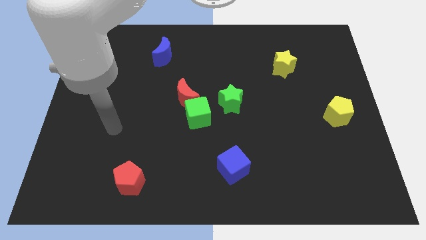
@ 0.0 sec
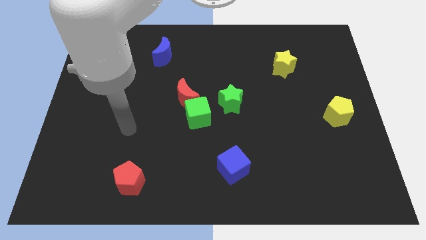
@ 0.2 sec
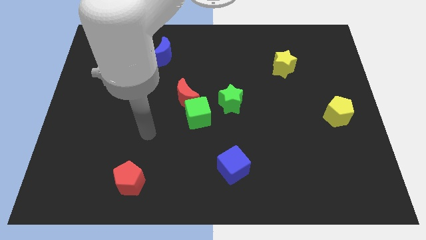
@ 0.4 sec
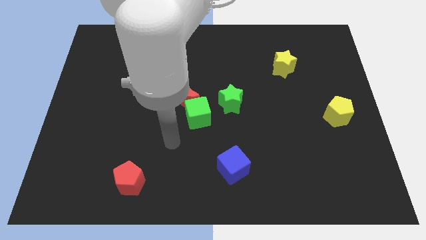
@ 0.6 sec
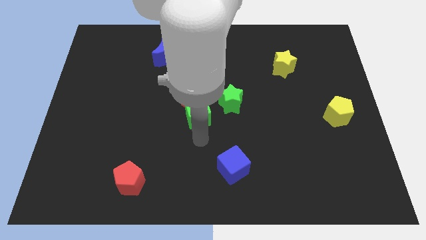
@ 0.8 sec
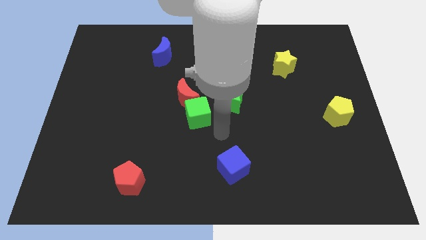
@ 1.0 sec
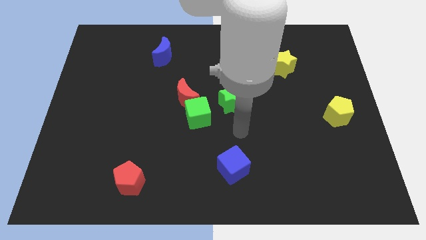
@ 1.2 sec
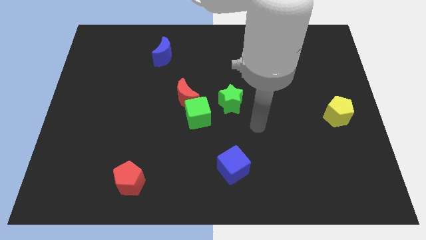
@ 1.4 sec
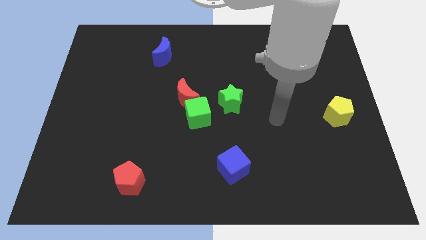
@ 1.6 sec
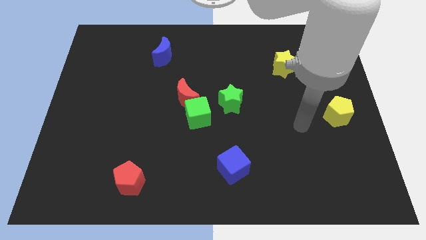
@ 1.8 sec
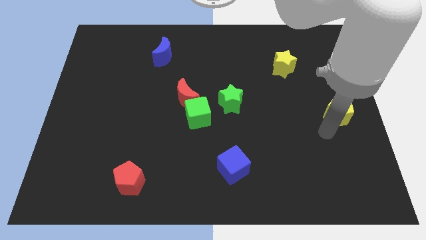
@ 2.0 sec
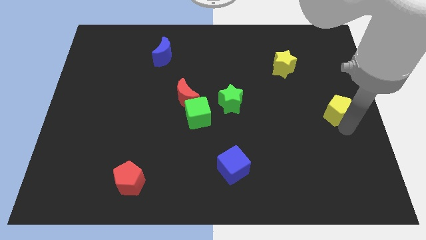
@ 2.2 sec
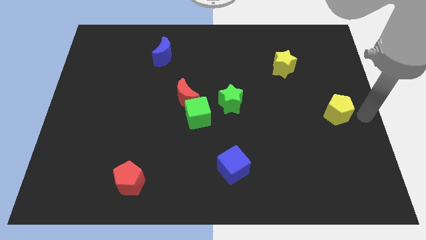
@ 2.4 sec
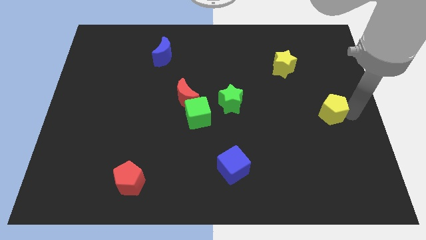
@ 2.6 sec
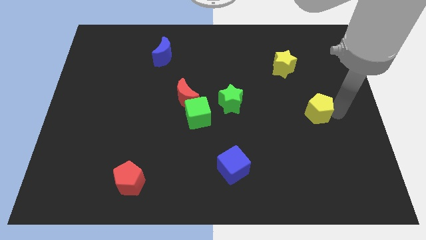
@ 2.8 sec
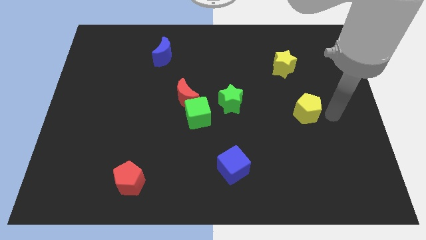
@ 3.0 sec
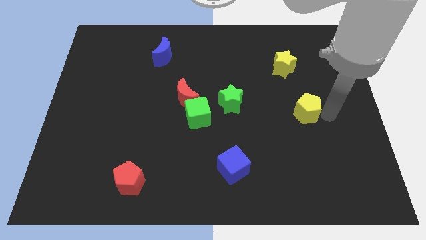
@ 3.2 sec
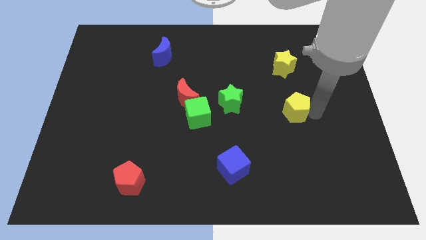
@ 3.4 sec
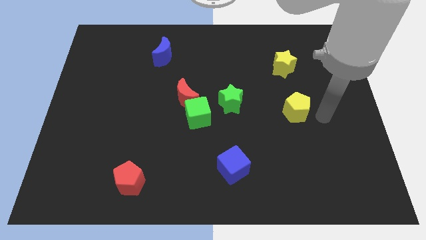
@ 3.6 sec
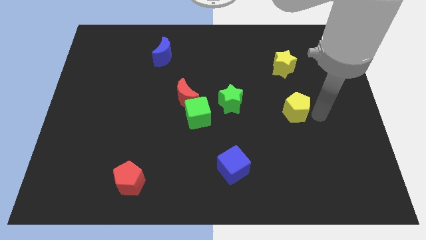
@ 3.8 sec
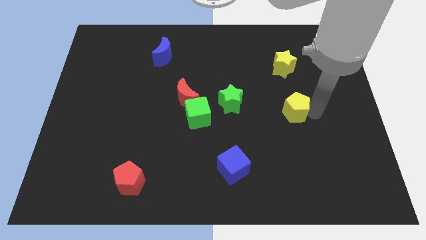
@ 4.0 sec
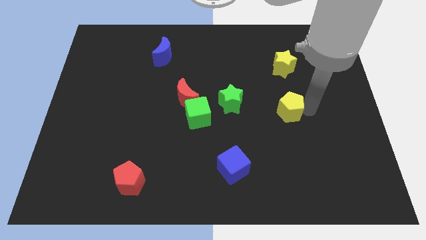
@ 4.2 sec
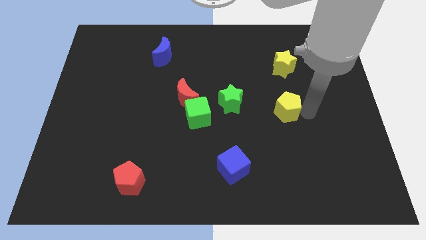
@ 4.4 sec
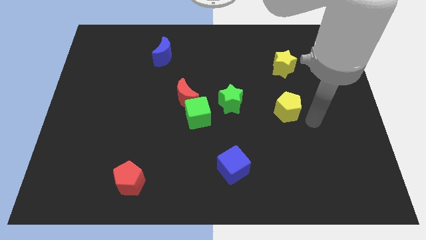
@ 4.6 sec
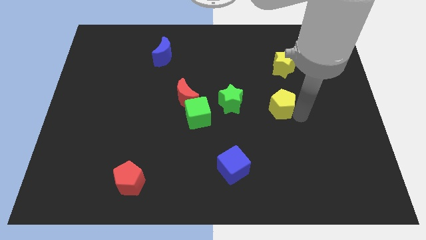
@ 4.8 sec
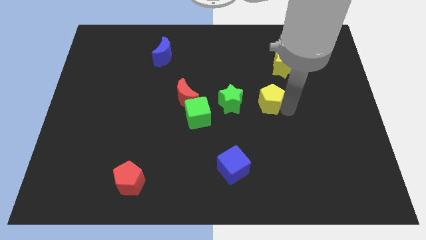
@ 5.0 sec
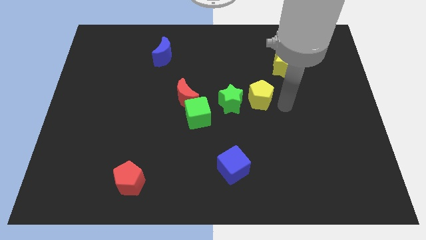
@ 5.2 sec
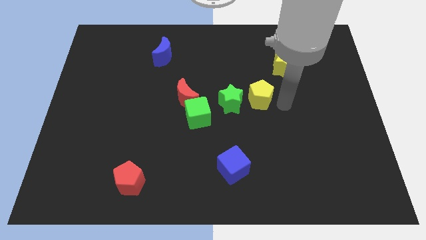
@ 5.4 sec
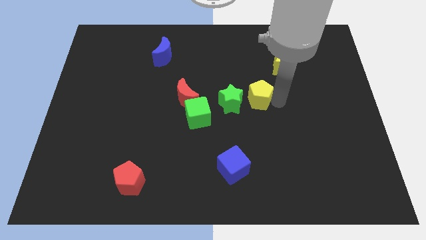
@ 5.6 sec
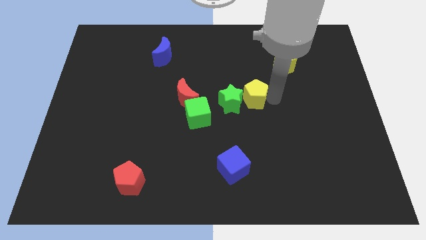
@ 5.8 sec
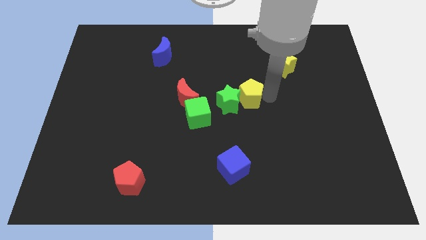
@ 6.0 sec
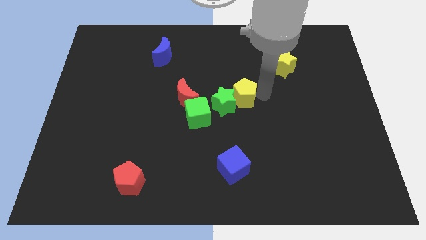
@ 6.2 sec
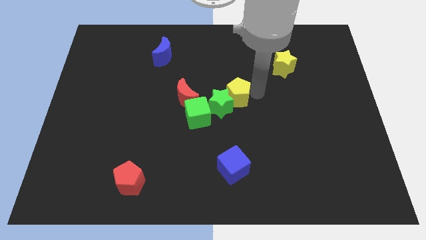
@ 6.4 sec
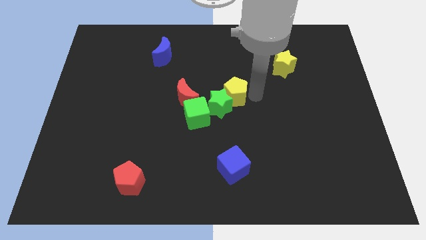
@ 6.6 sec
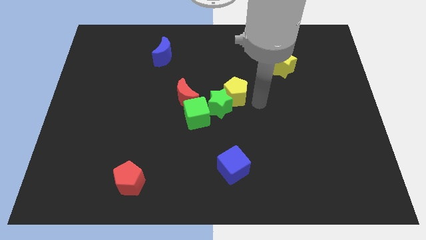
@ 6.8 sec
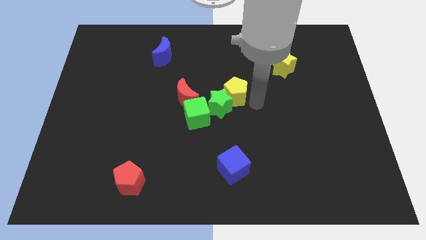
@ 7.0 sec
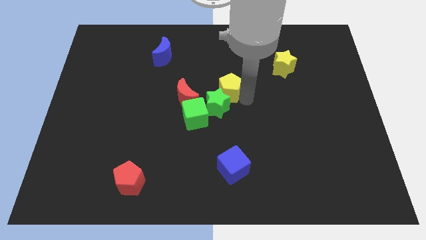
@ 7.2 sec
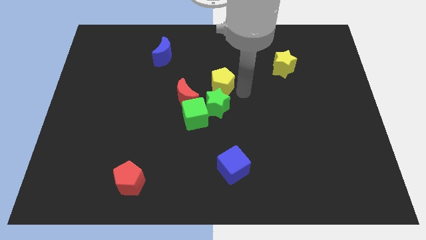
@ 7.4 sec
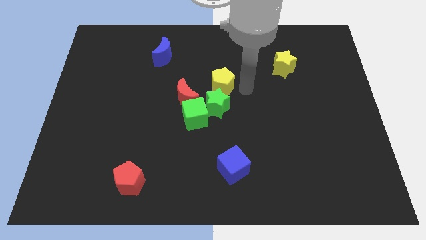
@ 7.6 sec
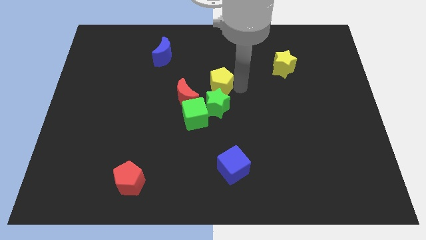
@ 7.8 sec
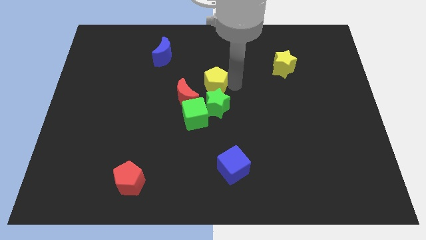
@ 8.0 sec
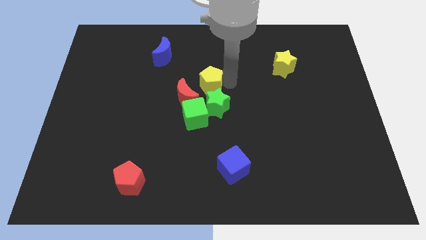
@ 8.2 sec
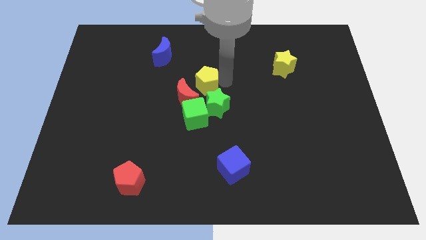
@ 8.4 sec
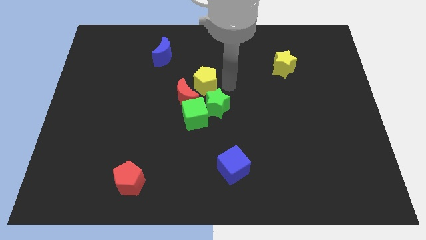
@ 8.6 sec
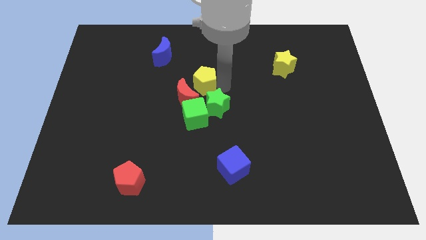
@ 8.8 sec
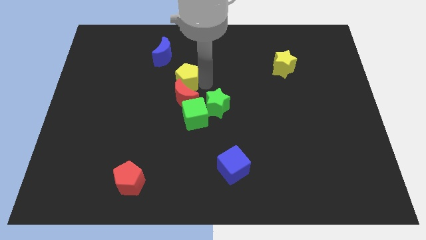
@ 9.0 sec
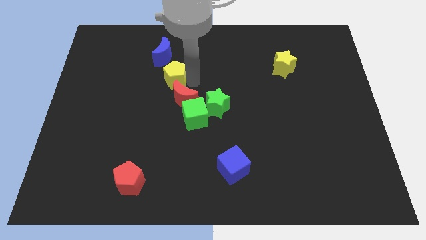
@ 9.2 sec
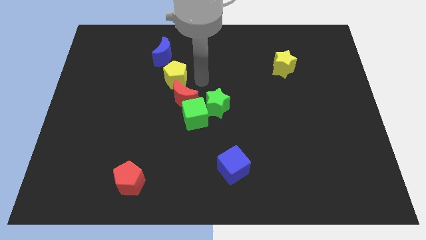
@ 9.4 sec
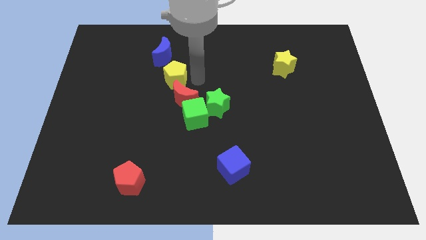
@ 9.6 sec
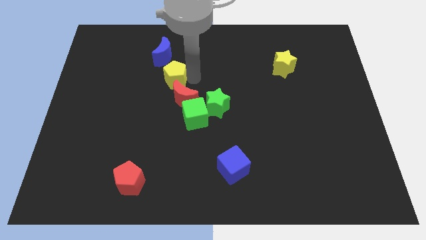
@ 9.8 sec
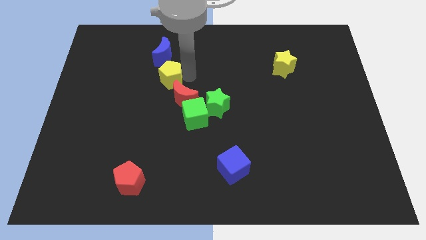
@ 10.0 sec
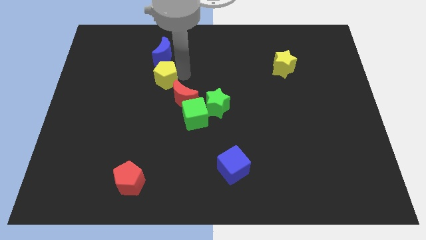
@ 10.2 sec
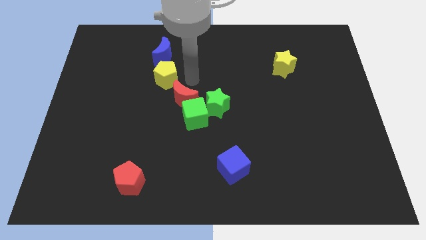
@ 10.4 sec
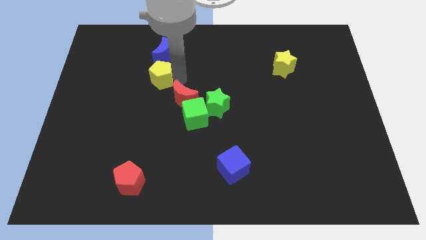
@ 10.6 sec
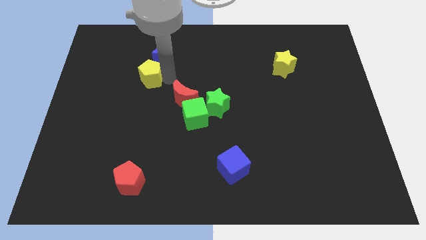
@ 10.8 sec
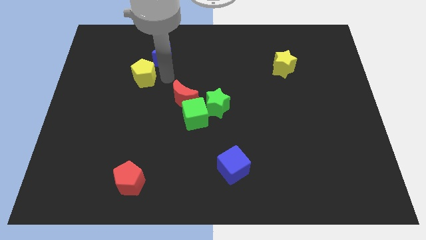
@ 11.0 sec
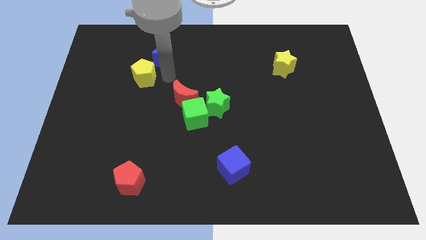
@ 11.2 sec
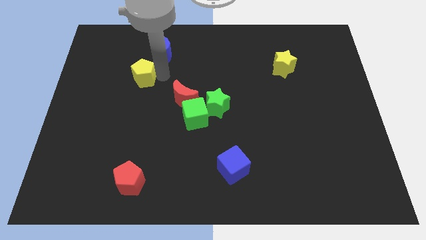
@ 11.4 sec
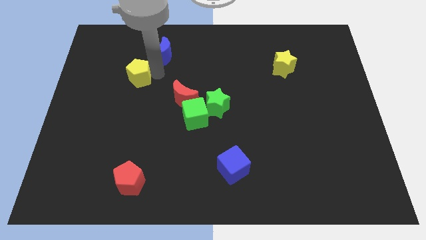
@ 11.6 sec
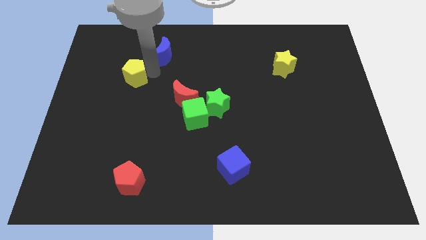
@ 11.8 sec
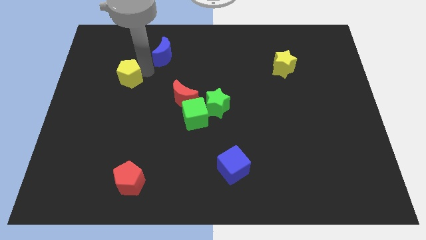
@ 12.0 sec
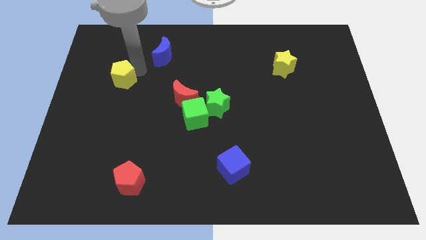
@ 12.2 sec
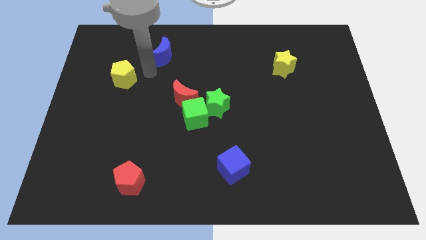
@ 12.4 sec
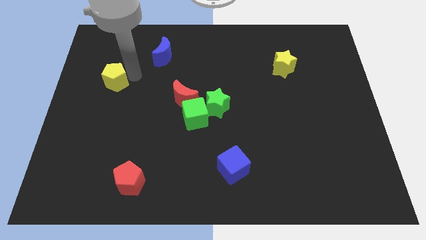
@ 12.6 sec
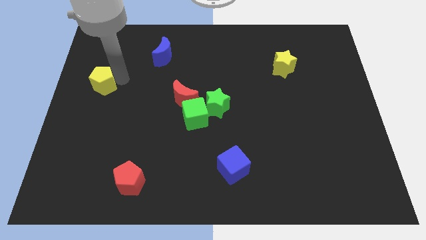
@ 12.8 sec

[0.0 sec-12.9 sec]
put the yellow pentagon to the left side of the board

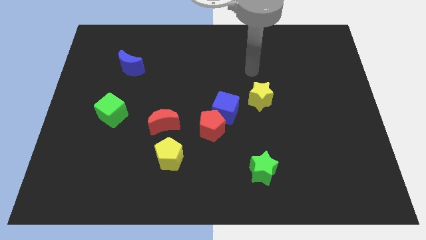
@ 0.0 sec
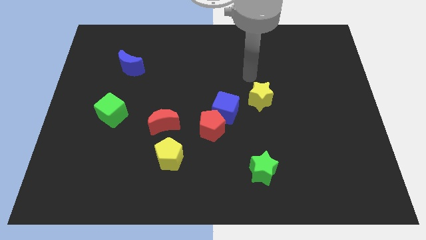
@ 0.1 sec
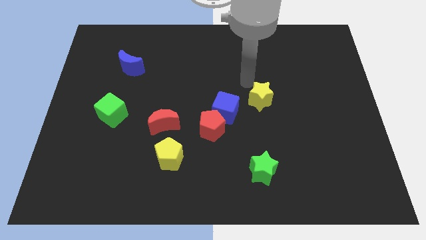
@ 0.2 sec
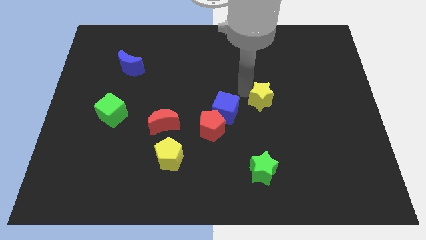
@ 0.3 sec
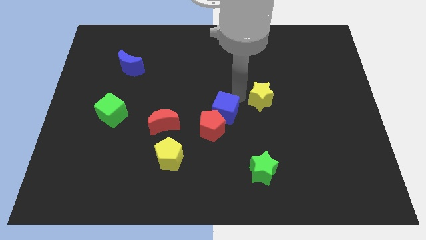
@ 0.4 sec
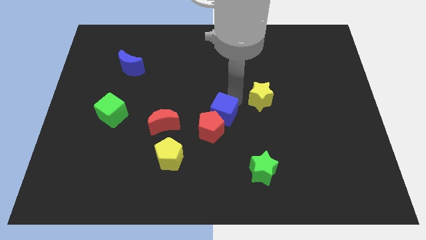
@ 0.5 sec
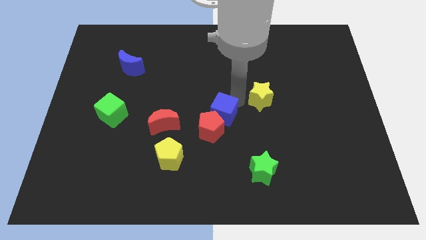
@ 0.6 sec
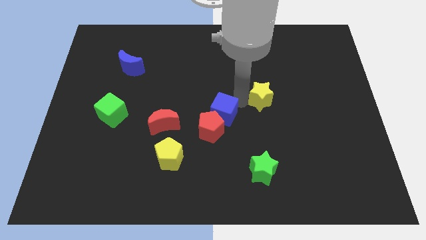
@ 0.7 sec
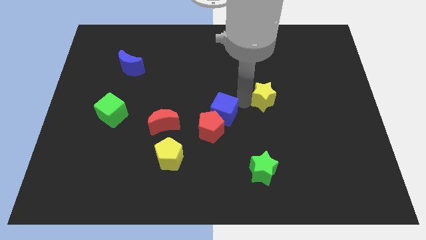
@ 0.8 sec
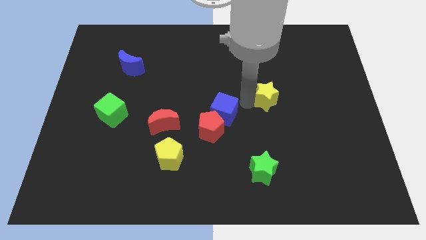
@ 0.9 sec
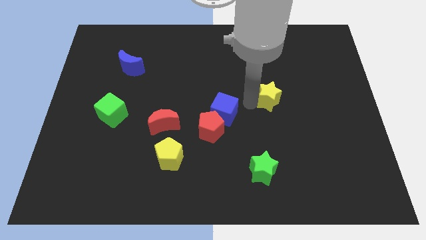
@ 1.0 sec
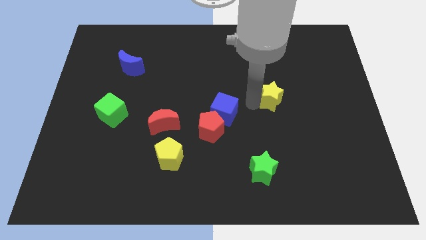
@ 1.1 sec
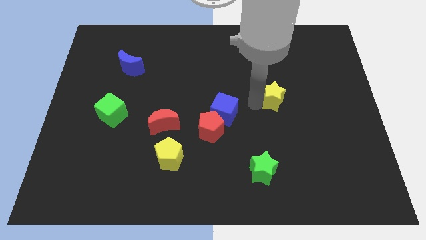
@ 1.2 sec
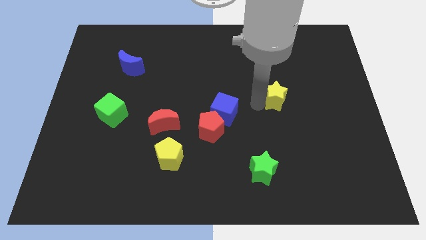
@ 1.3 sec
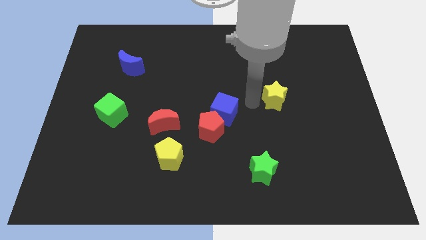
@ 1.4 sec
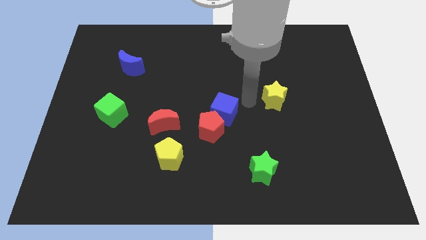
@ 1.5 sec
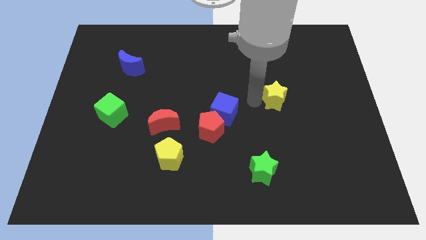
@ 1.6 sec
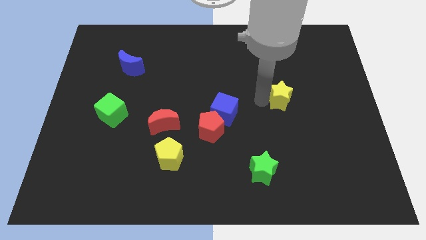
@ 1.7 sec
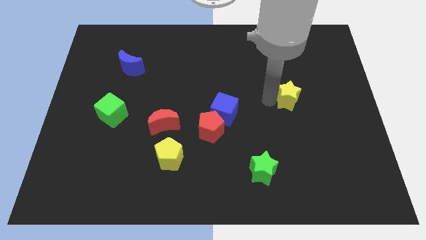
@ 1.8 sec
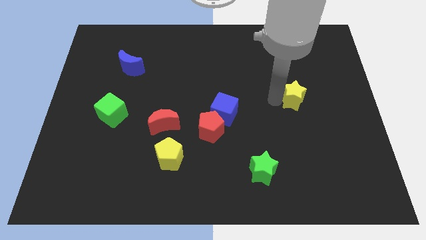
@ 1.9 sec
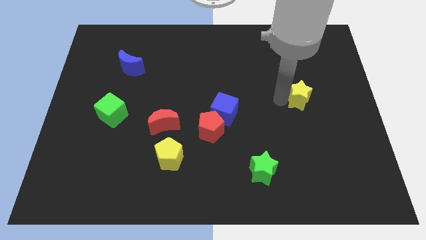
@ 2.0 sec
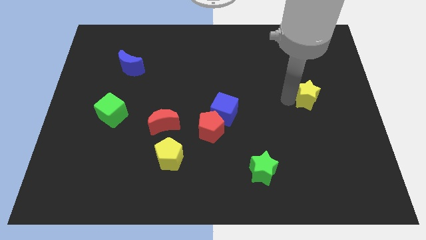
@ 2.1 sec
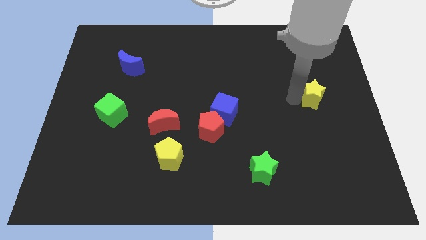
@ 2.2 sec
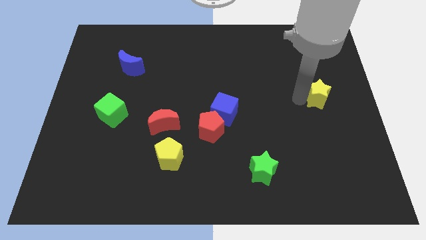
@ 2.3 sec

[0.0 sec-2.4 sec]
slide the yellow star to the right side
